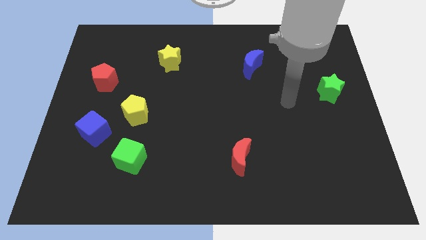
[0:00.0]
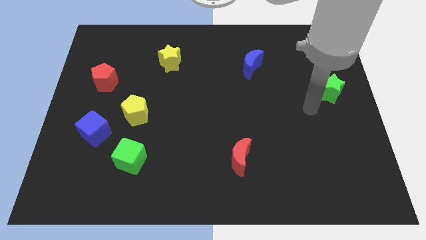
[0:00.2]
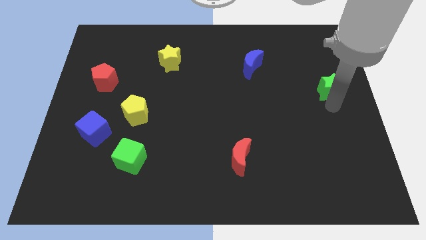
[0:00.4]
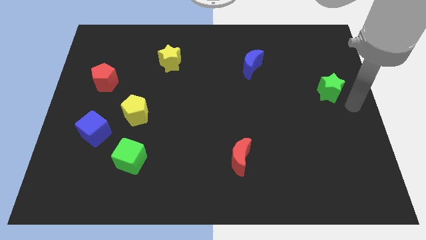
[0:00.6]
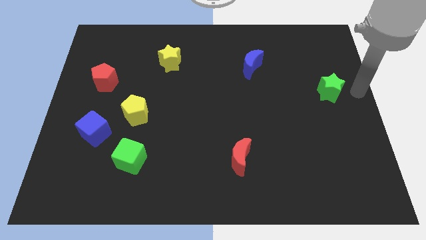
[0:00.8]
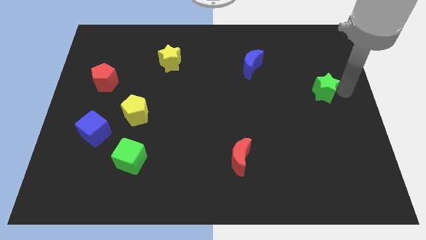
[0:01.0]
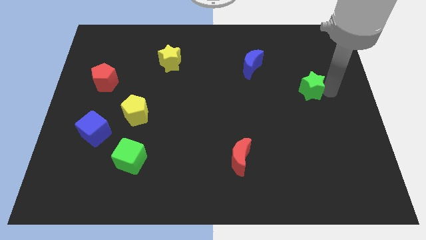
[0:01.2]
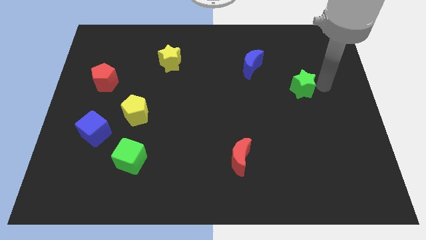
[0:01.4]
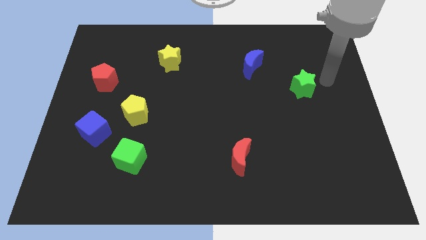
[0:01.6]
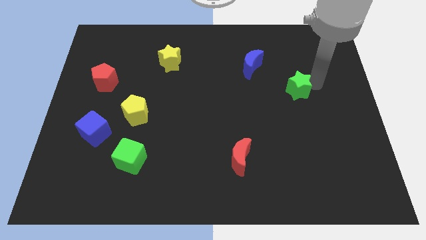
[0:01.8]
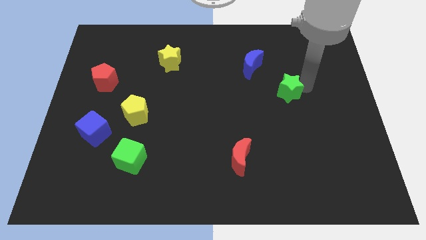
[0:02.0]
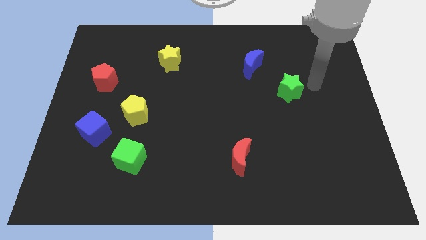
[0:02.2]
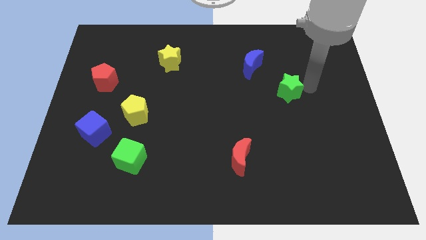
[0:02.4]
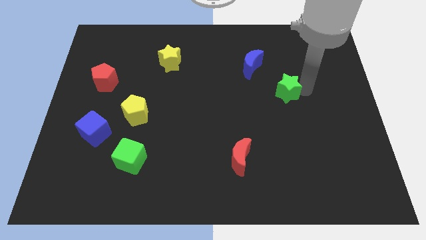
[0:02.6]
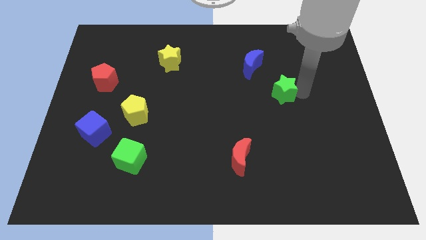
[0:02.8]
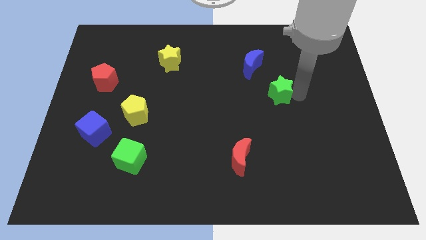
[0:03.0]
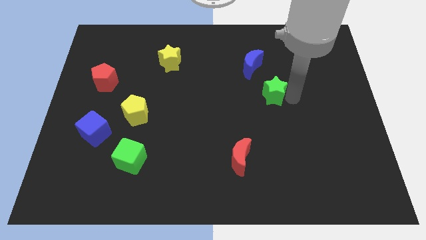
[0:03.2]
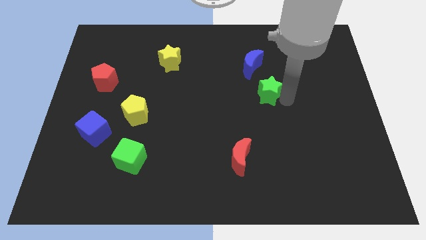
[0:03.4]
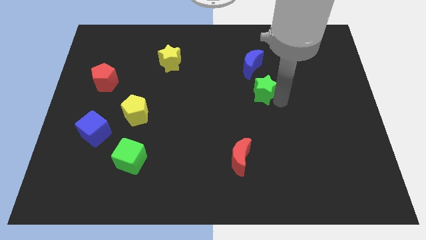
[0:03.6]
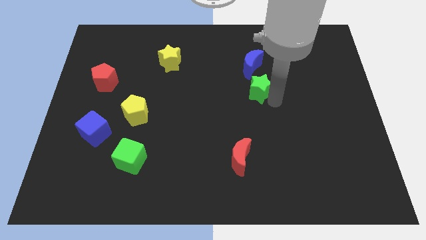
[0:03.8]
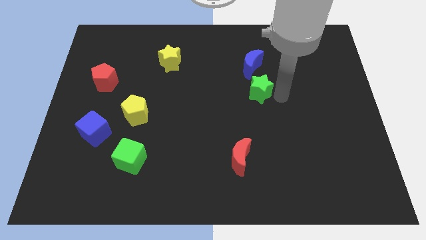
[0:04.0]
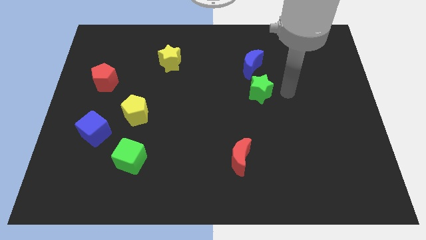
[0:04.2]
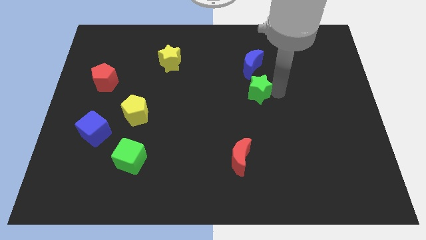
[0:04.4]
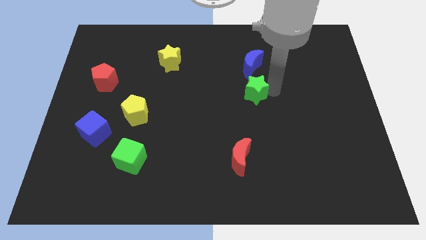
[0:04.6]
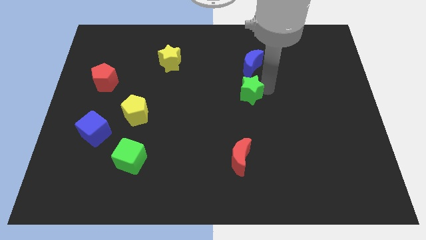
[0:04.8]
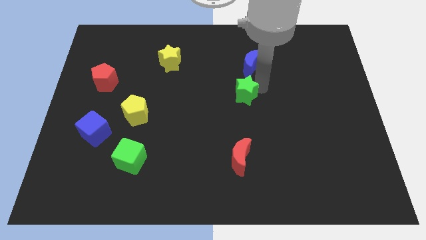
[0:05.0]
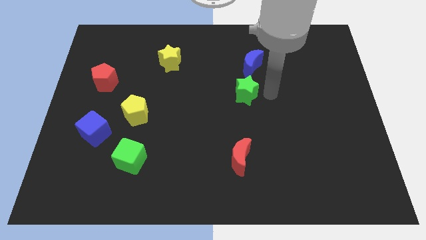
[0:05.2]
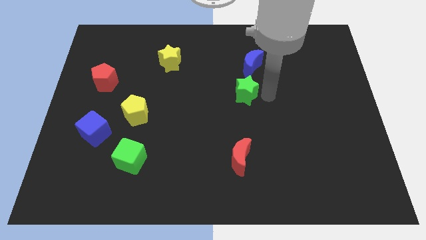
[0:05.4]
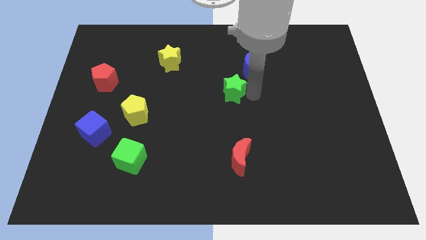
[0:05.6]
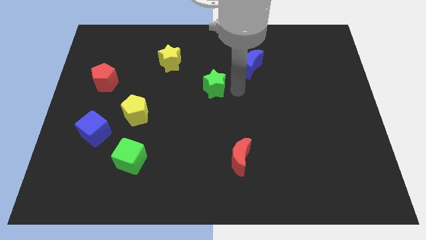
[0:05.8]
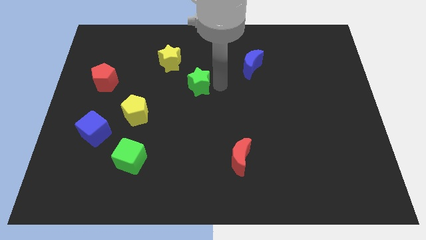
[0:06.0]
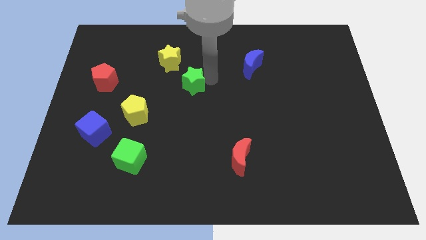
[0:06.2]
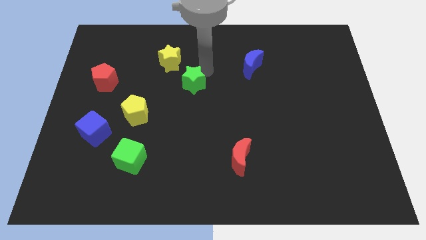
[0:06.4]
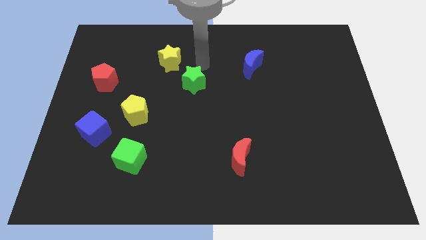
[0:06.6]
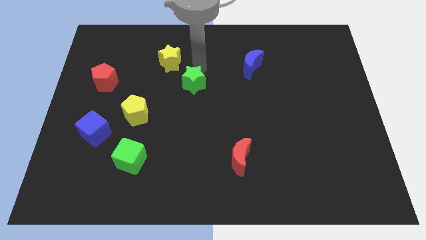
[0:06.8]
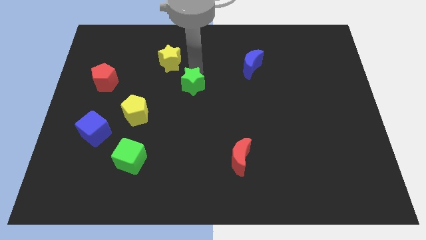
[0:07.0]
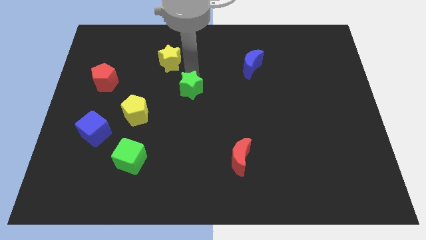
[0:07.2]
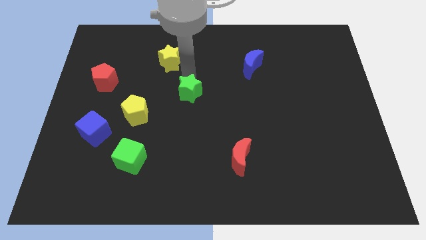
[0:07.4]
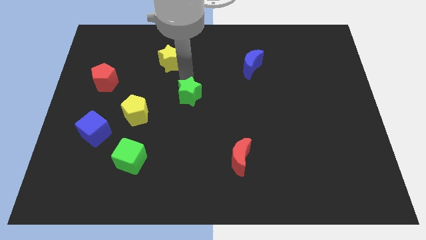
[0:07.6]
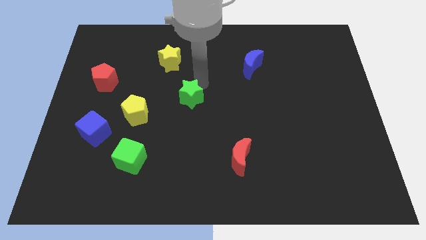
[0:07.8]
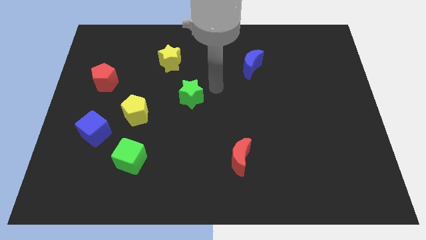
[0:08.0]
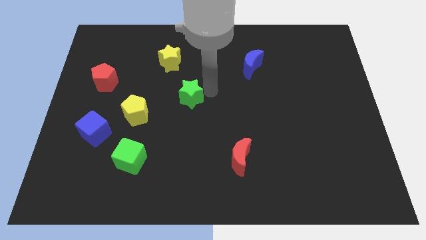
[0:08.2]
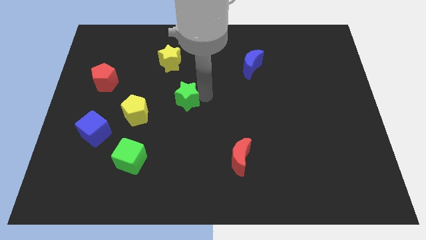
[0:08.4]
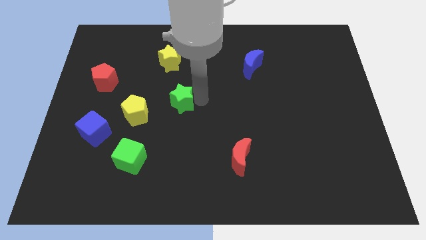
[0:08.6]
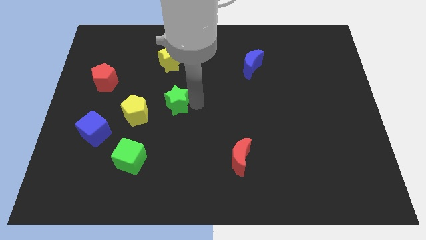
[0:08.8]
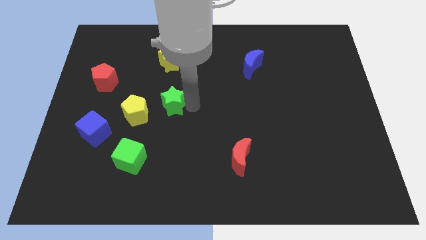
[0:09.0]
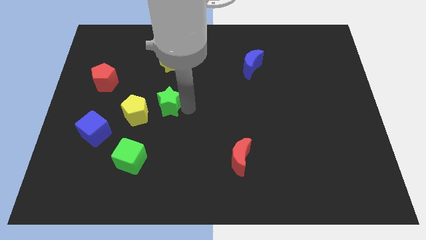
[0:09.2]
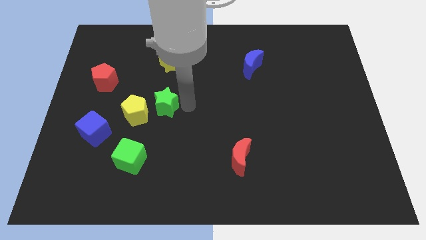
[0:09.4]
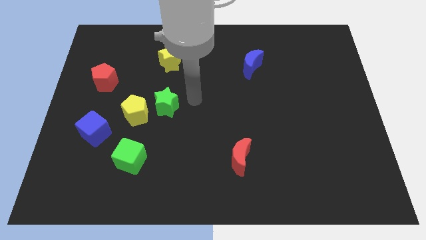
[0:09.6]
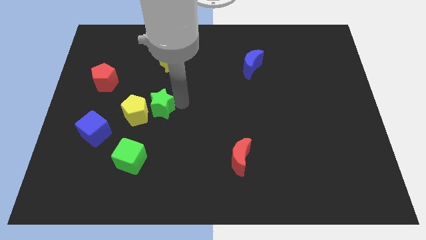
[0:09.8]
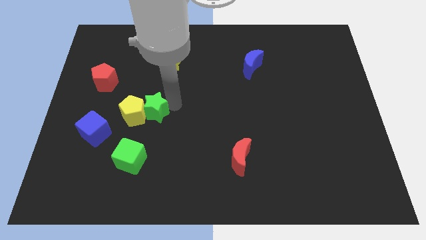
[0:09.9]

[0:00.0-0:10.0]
move the green star towards the yellow pentagon

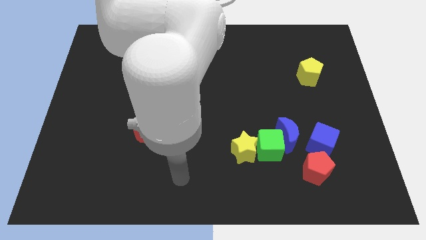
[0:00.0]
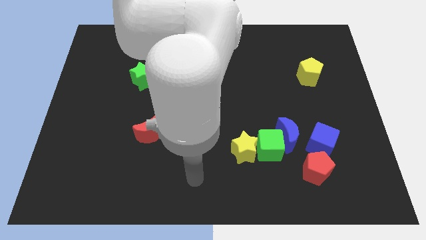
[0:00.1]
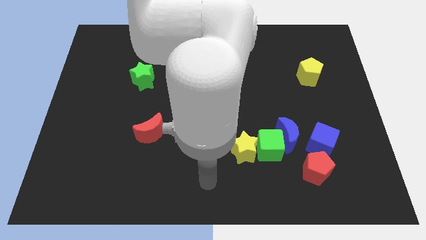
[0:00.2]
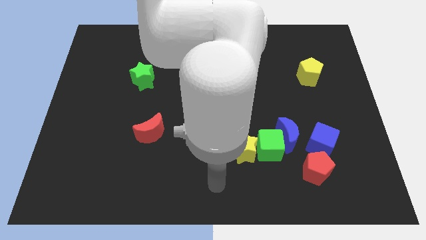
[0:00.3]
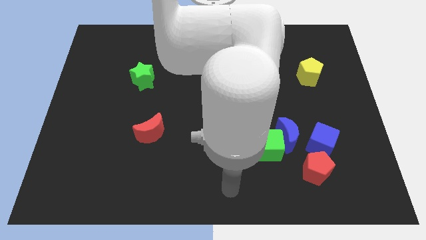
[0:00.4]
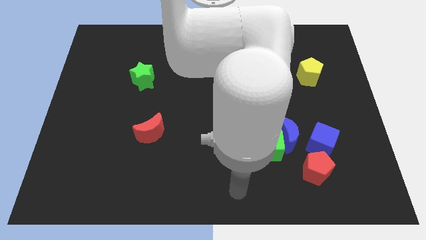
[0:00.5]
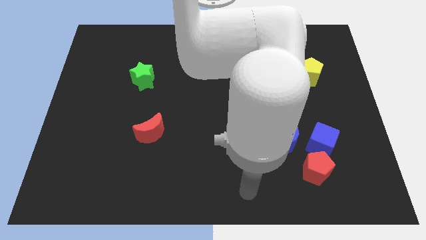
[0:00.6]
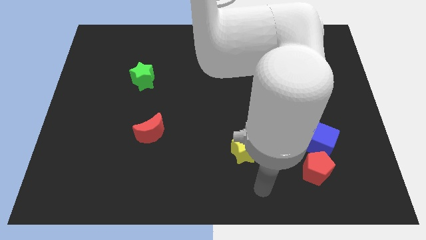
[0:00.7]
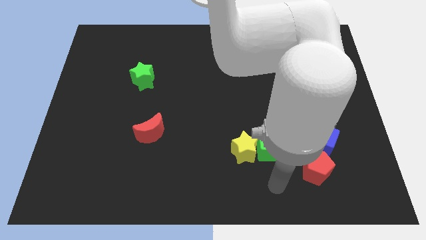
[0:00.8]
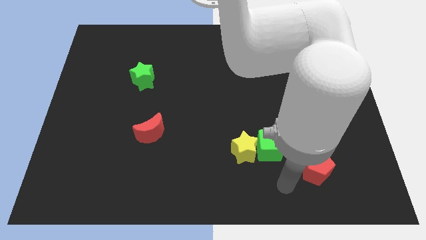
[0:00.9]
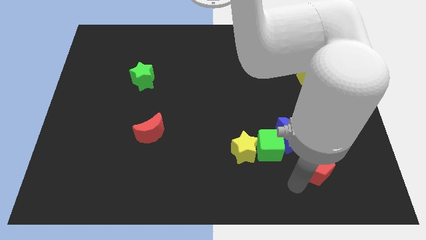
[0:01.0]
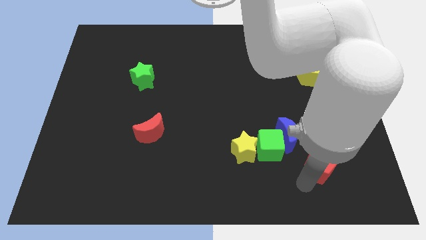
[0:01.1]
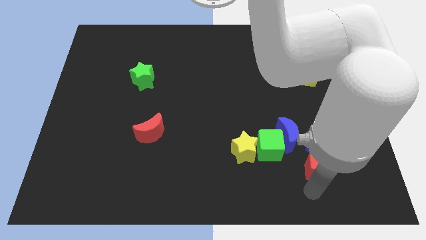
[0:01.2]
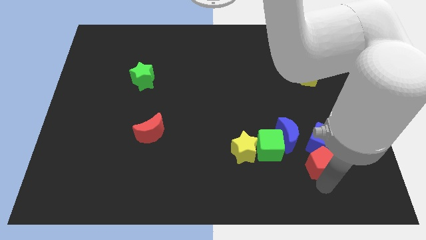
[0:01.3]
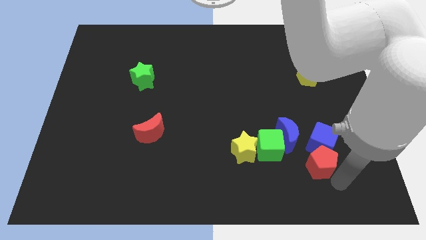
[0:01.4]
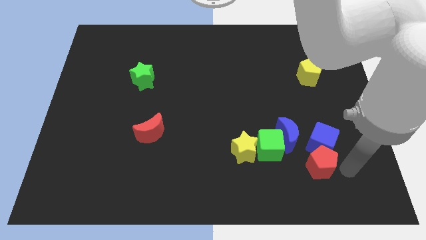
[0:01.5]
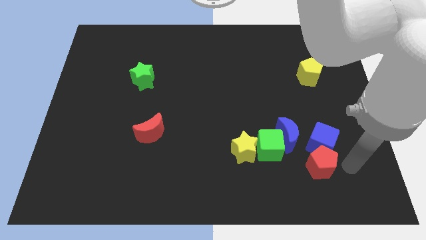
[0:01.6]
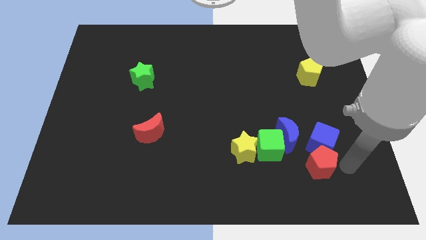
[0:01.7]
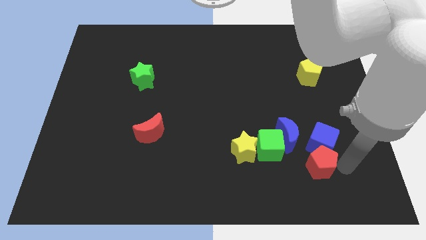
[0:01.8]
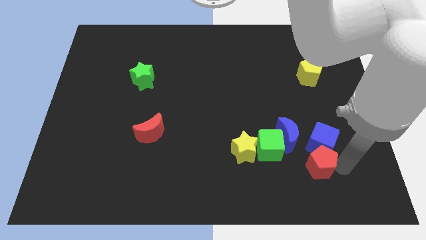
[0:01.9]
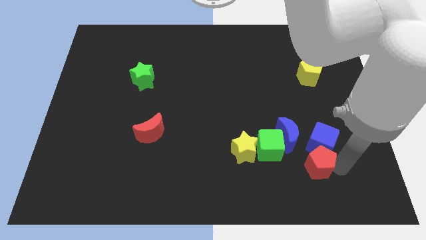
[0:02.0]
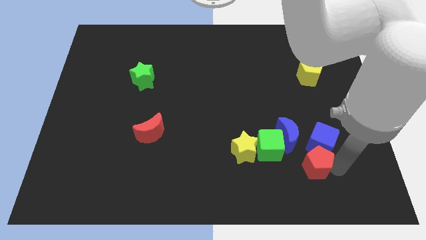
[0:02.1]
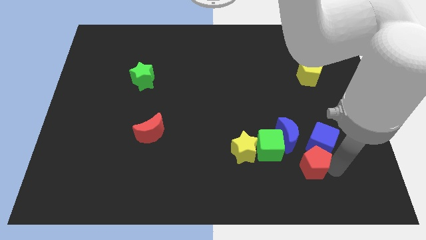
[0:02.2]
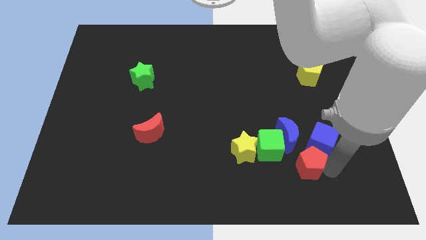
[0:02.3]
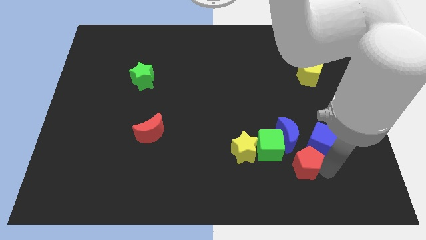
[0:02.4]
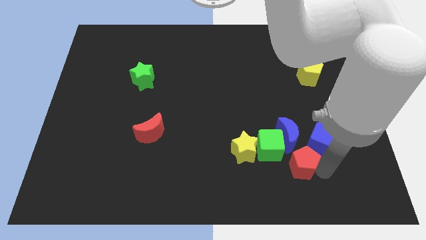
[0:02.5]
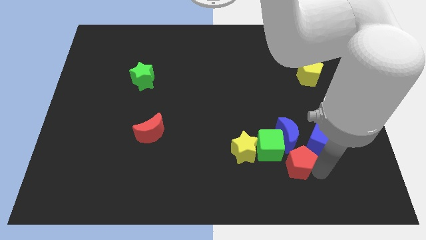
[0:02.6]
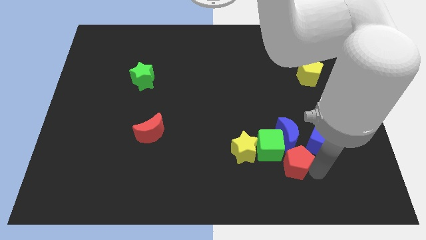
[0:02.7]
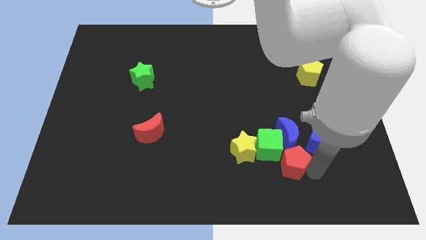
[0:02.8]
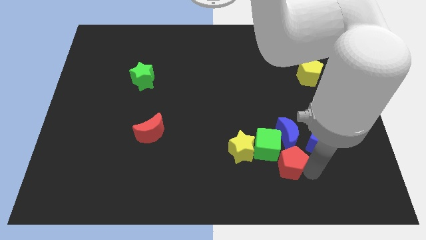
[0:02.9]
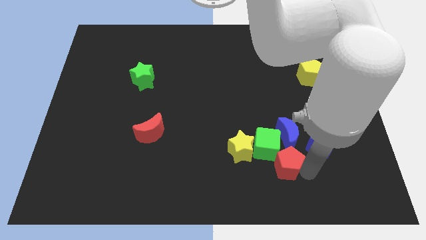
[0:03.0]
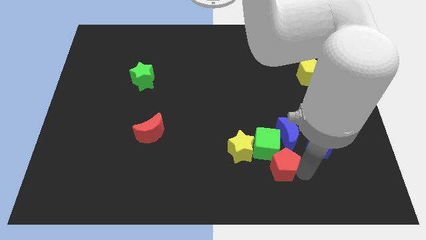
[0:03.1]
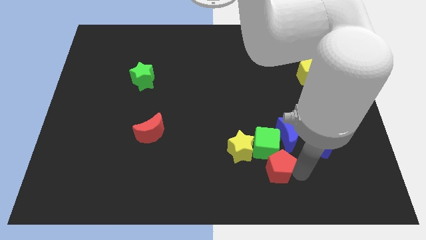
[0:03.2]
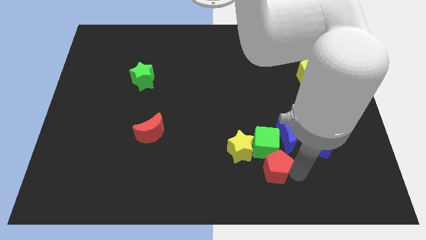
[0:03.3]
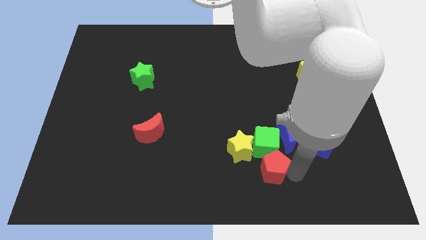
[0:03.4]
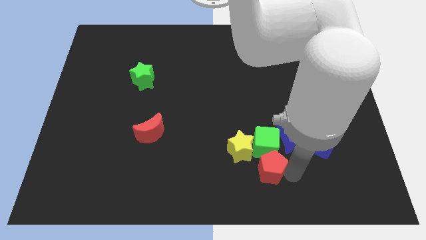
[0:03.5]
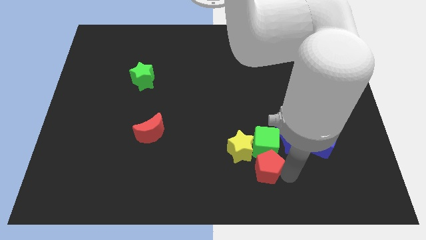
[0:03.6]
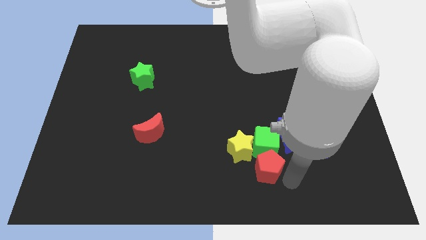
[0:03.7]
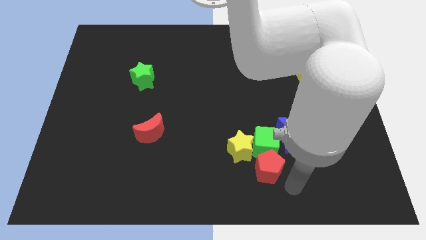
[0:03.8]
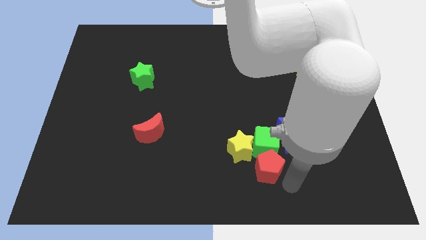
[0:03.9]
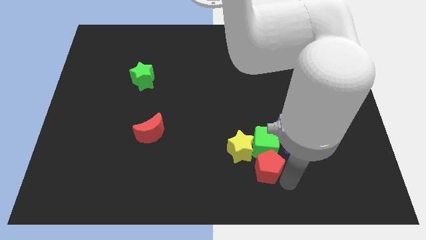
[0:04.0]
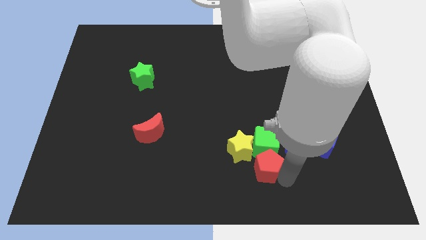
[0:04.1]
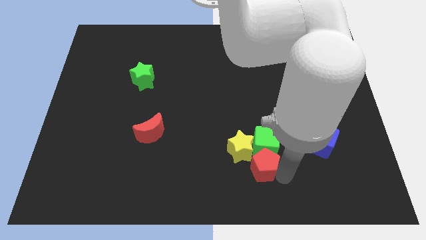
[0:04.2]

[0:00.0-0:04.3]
put the red pentagon towards the yellow star
